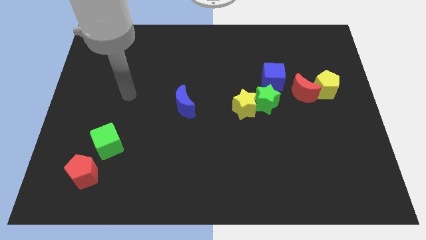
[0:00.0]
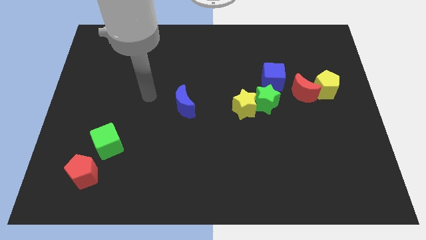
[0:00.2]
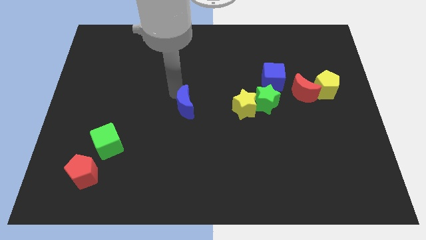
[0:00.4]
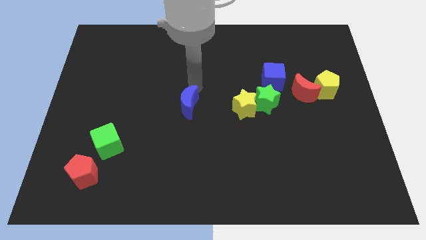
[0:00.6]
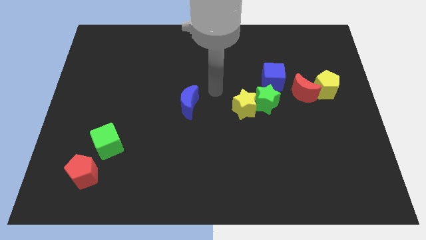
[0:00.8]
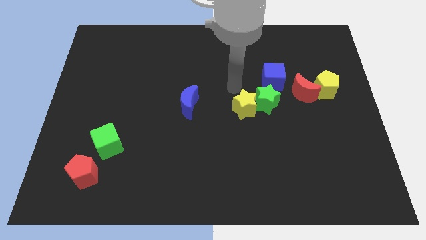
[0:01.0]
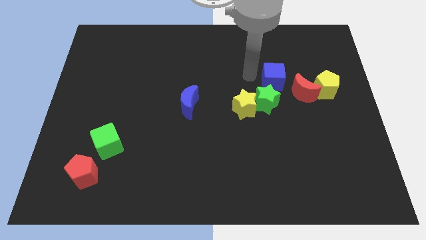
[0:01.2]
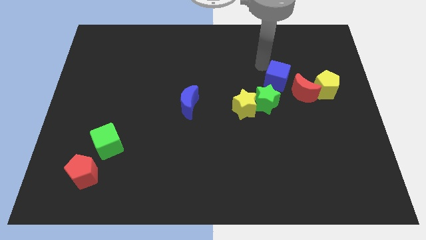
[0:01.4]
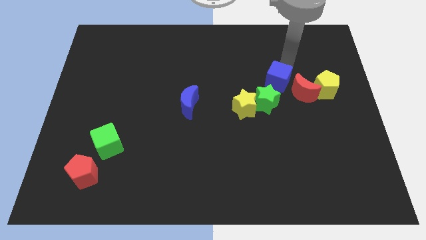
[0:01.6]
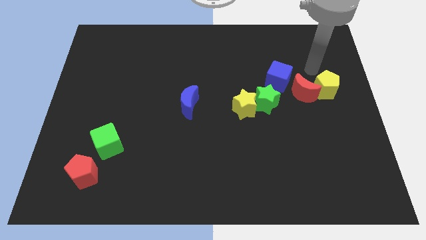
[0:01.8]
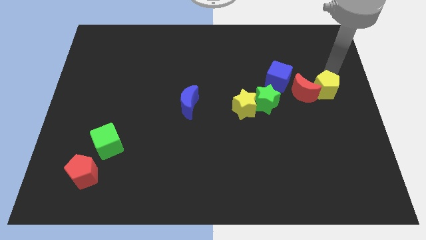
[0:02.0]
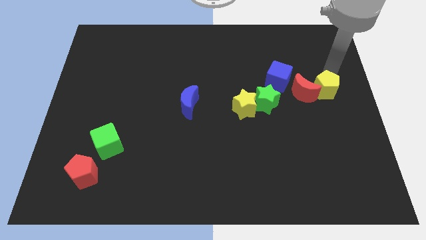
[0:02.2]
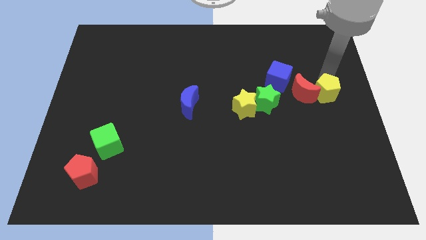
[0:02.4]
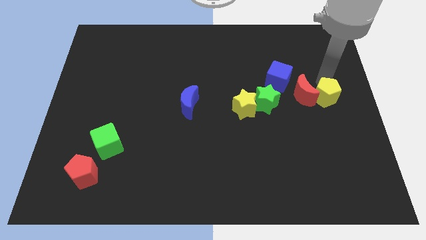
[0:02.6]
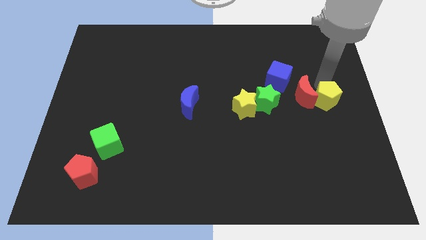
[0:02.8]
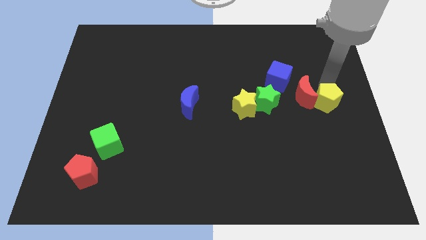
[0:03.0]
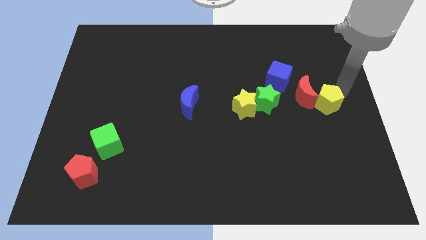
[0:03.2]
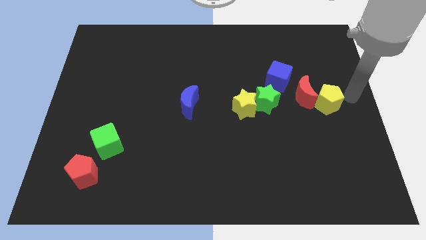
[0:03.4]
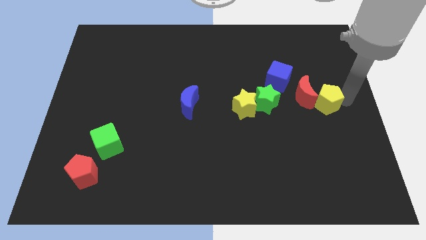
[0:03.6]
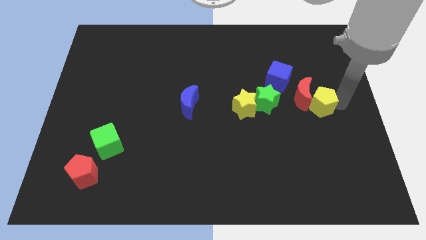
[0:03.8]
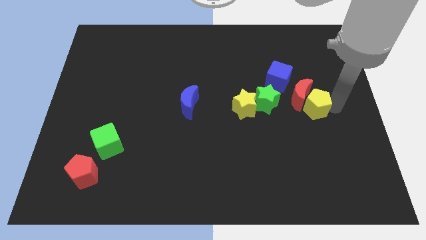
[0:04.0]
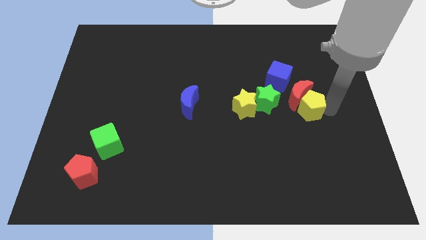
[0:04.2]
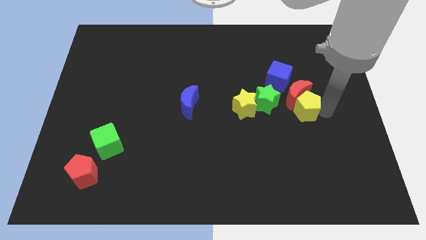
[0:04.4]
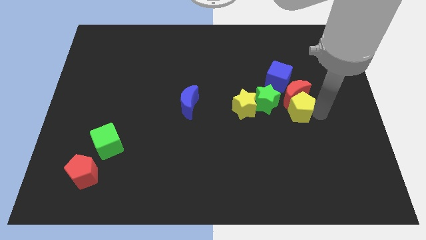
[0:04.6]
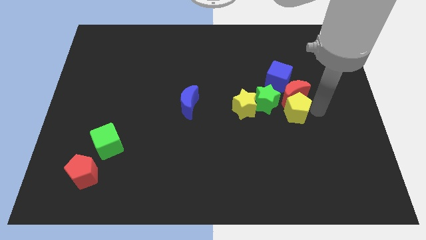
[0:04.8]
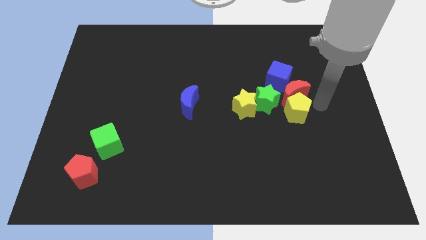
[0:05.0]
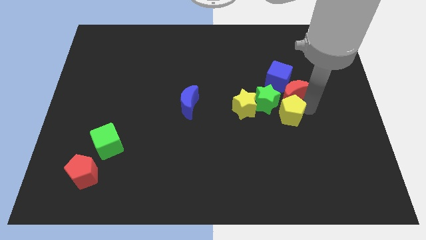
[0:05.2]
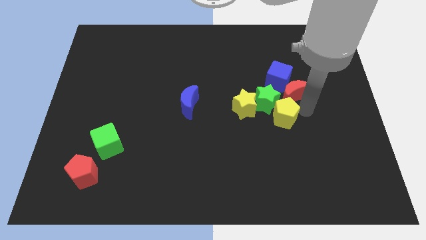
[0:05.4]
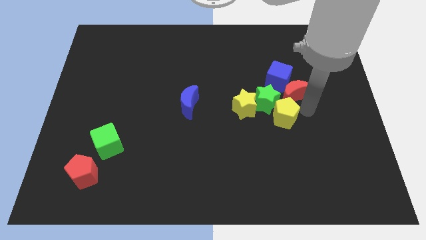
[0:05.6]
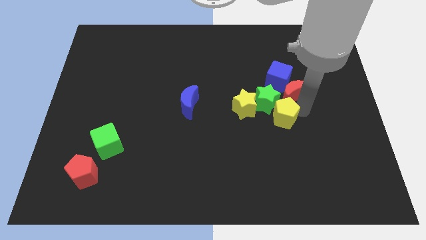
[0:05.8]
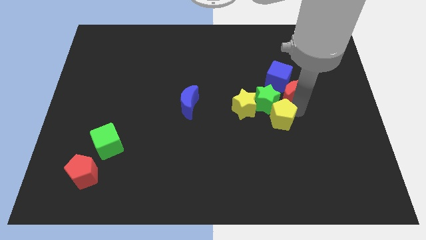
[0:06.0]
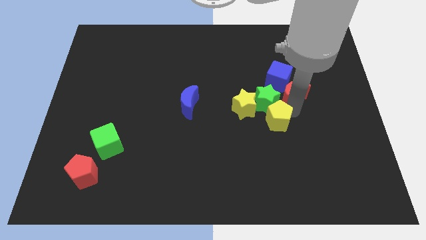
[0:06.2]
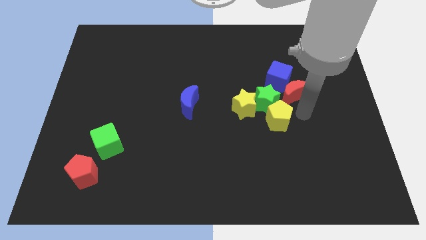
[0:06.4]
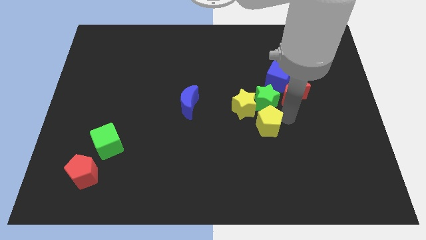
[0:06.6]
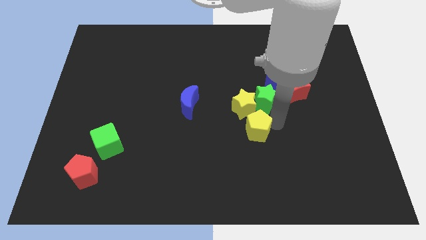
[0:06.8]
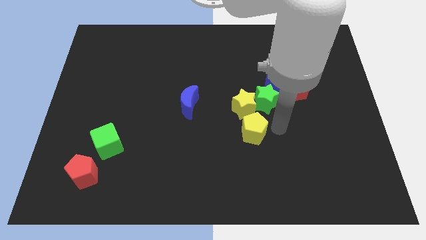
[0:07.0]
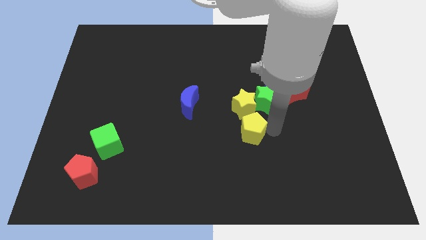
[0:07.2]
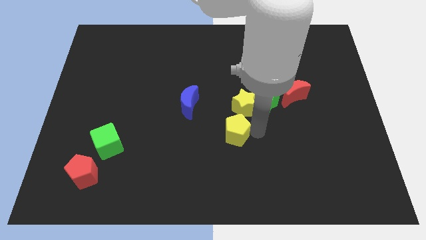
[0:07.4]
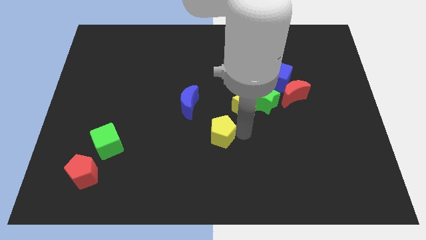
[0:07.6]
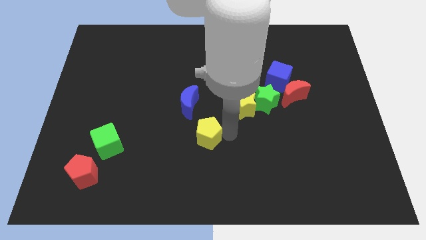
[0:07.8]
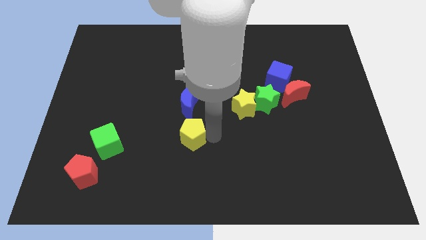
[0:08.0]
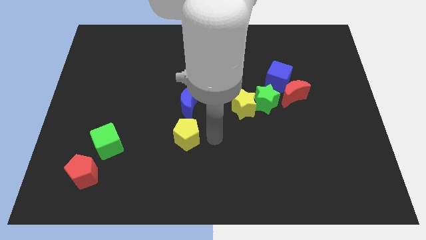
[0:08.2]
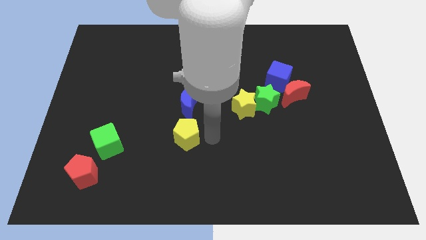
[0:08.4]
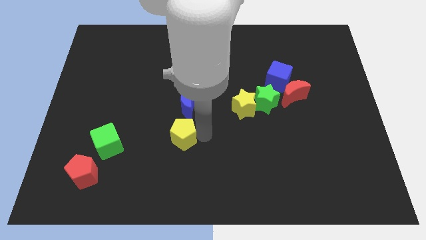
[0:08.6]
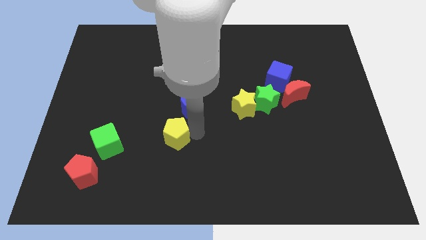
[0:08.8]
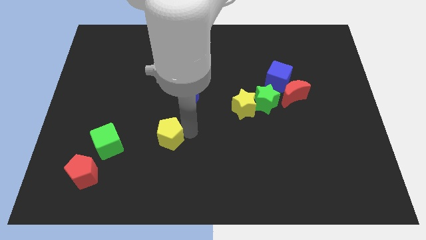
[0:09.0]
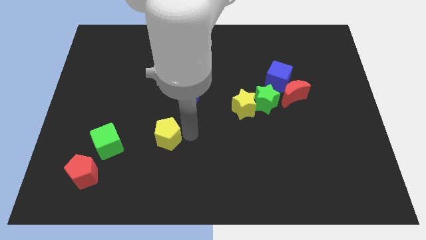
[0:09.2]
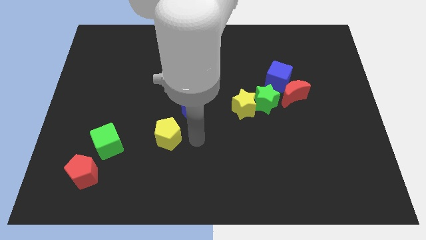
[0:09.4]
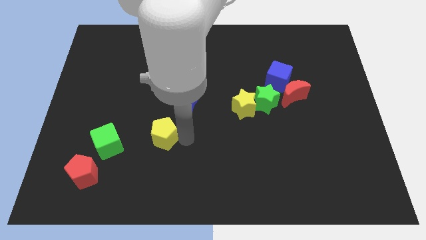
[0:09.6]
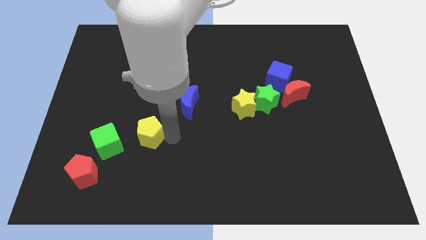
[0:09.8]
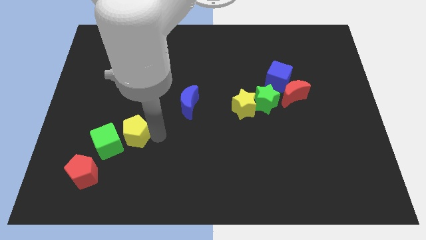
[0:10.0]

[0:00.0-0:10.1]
push the yellow pentagon to the green cube

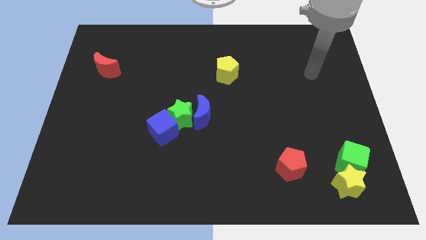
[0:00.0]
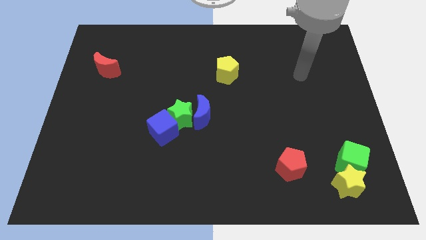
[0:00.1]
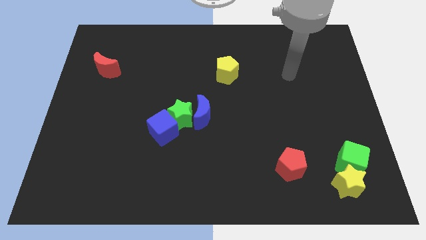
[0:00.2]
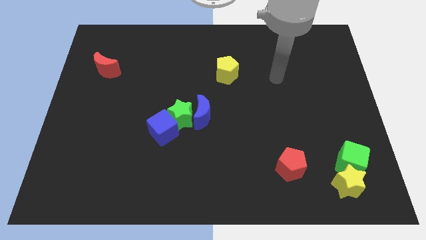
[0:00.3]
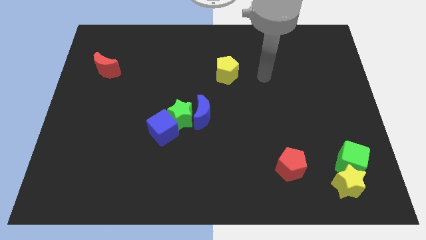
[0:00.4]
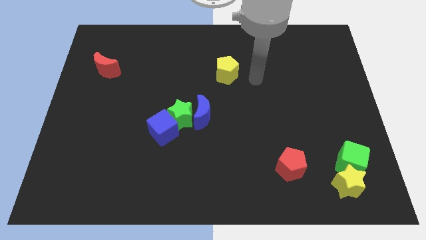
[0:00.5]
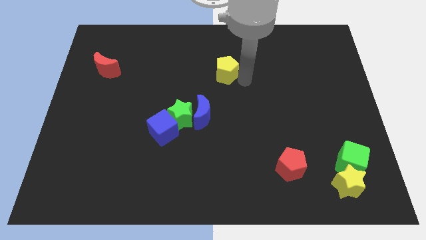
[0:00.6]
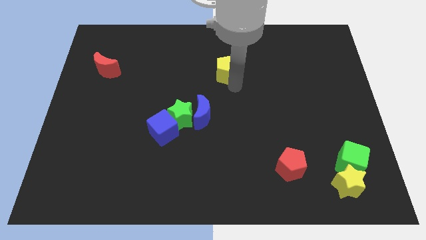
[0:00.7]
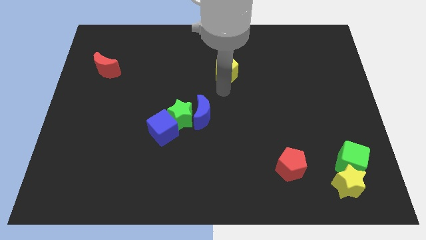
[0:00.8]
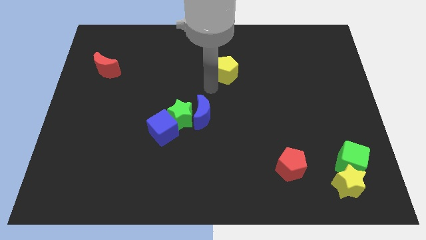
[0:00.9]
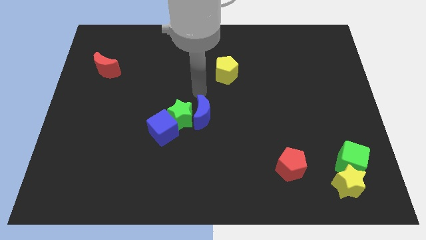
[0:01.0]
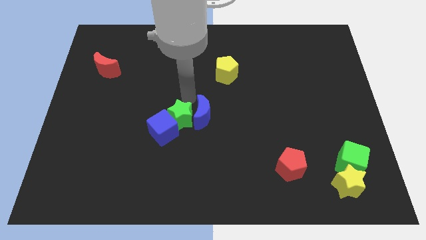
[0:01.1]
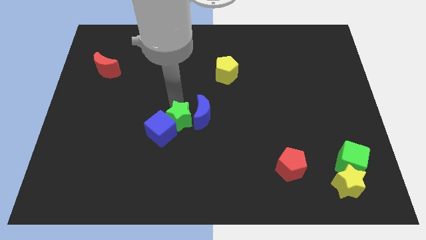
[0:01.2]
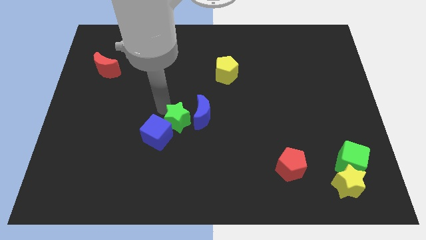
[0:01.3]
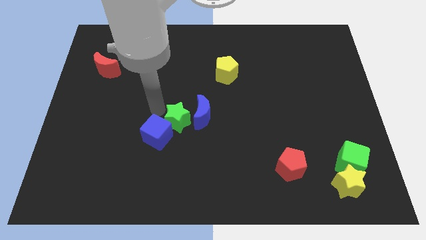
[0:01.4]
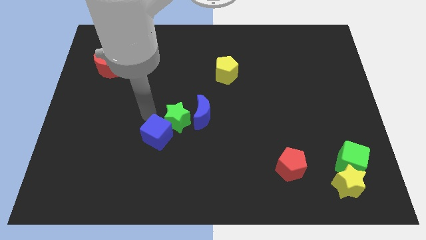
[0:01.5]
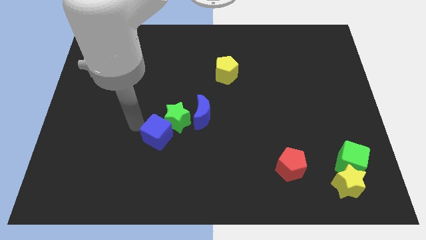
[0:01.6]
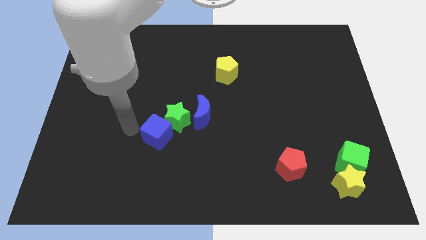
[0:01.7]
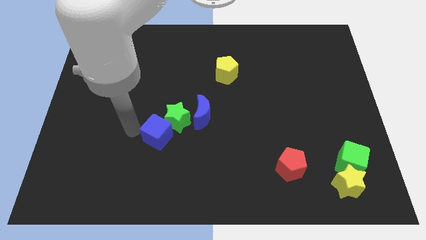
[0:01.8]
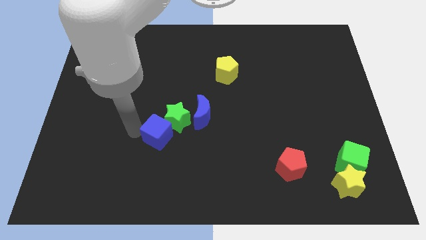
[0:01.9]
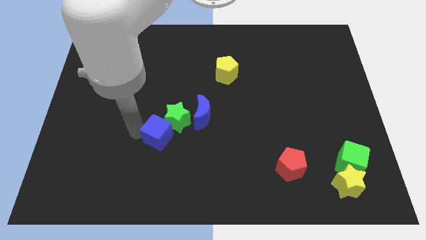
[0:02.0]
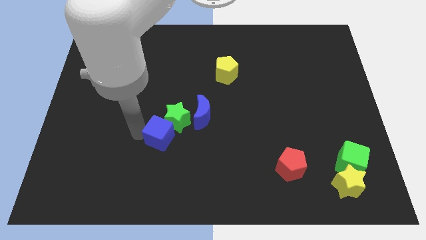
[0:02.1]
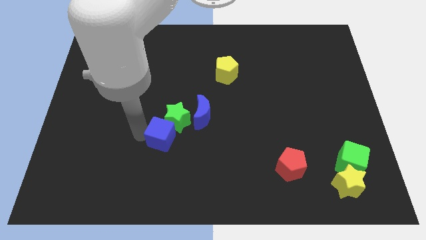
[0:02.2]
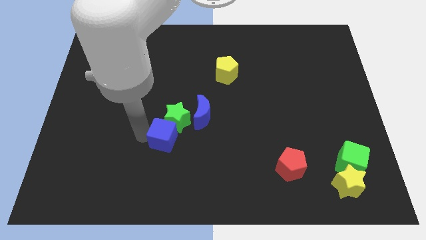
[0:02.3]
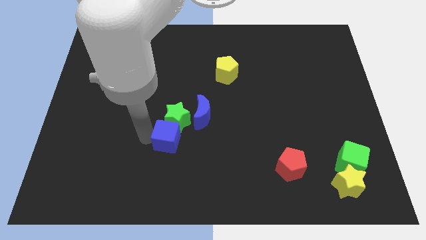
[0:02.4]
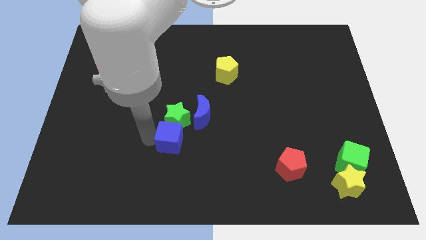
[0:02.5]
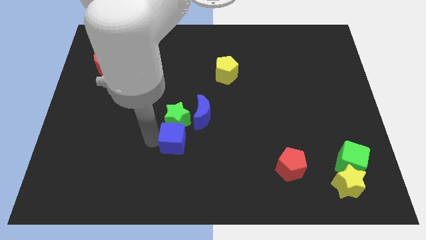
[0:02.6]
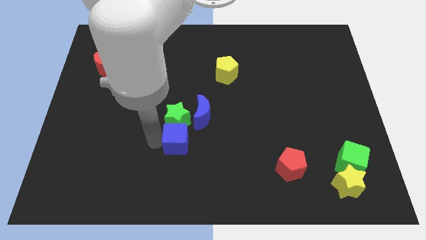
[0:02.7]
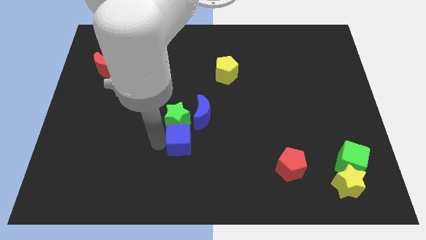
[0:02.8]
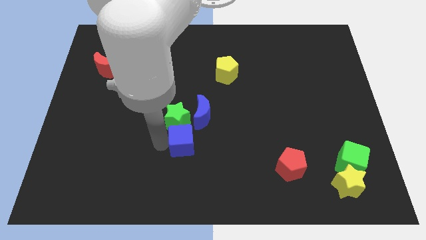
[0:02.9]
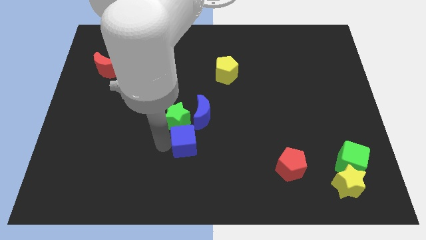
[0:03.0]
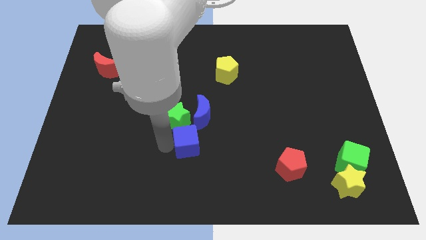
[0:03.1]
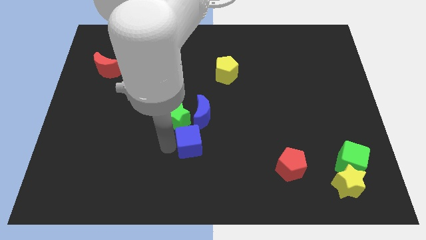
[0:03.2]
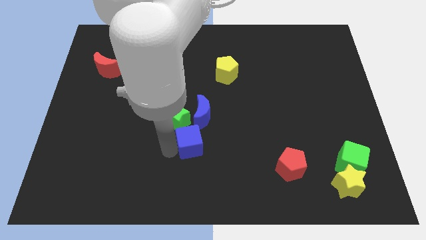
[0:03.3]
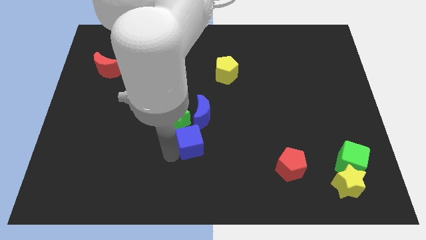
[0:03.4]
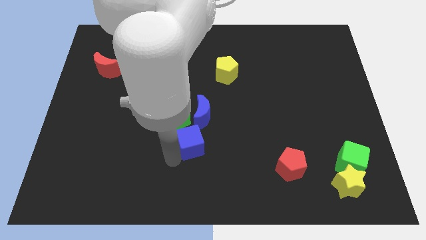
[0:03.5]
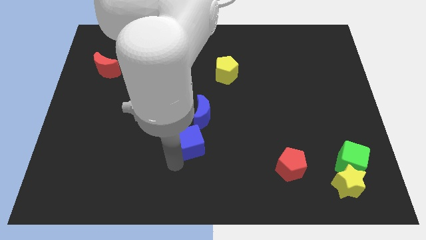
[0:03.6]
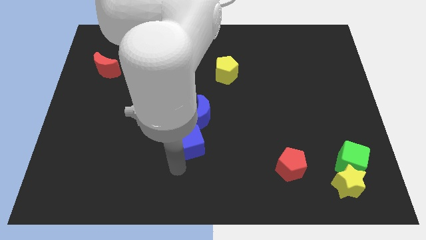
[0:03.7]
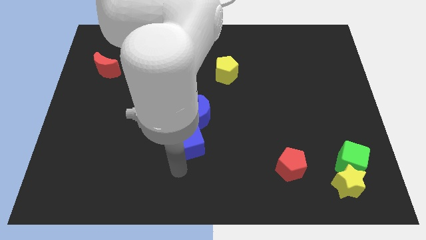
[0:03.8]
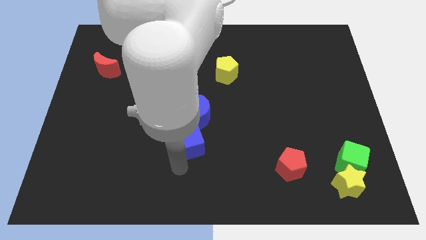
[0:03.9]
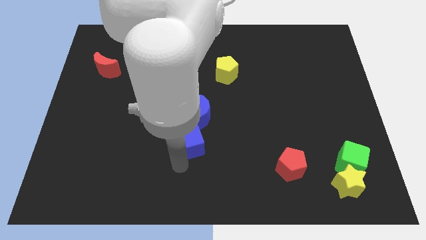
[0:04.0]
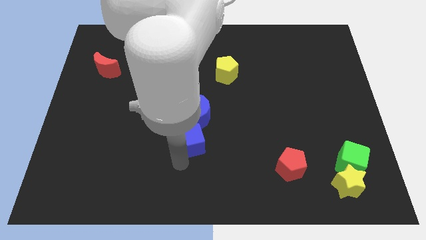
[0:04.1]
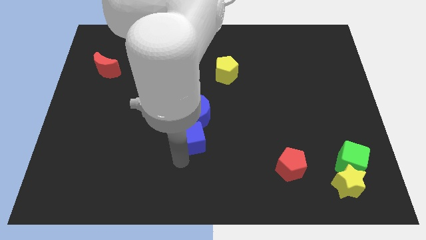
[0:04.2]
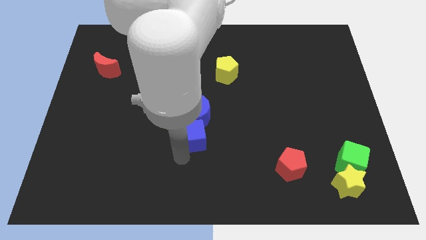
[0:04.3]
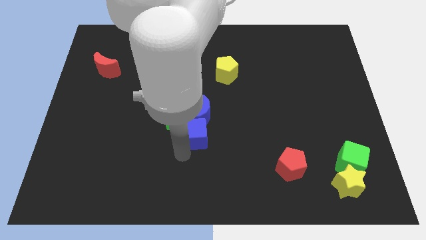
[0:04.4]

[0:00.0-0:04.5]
move the blue cube towards the blue moon
